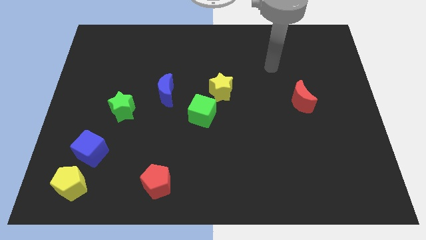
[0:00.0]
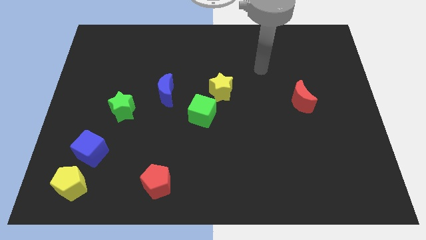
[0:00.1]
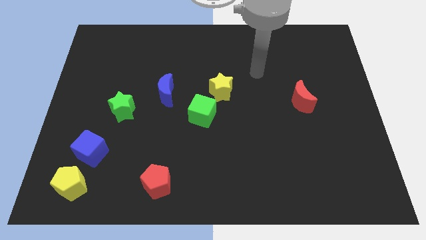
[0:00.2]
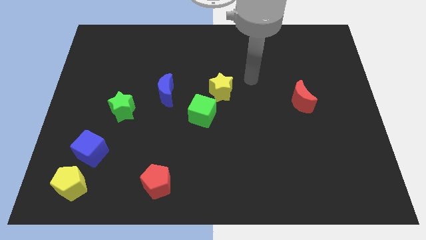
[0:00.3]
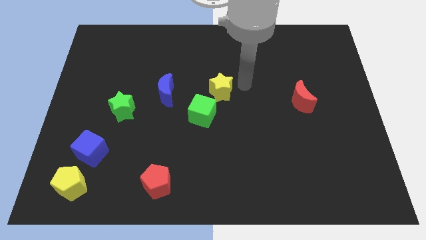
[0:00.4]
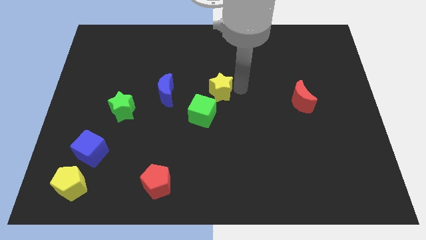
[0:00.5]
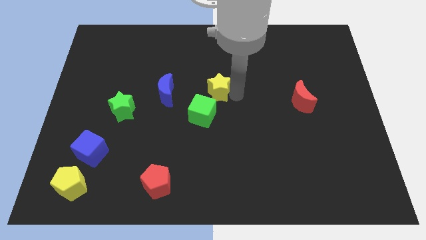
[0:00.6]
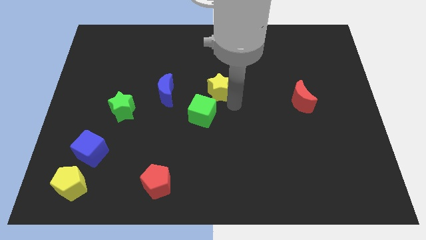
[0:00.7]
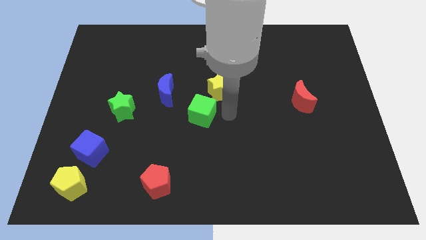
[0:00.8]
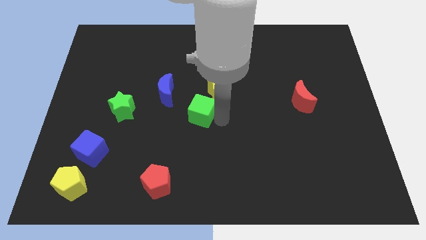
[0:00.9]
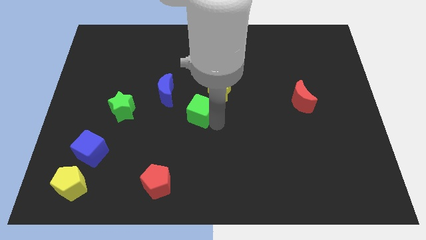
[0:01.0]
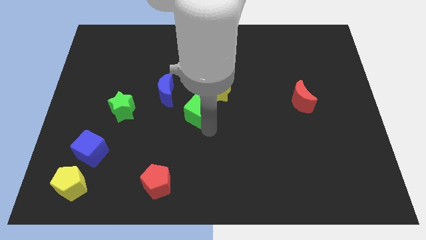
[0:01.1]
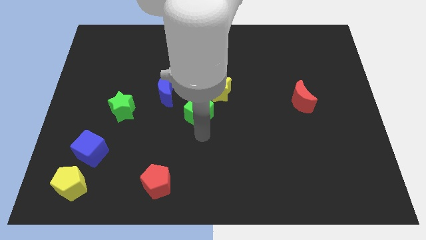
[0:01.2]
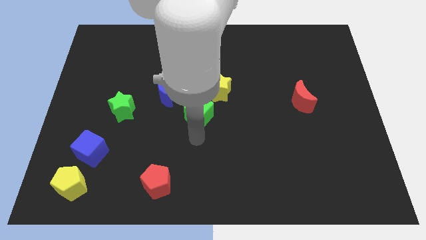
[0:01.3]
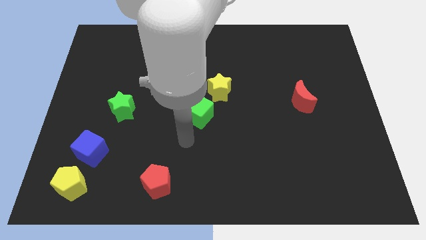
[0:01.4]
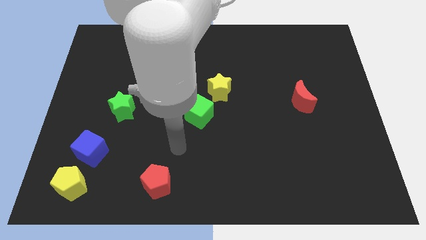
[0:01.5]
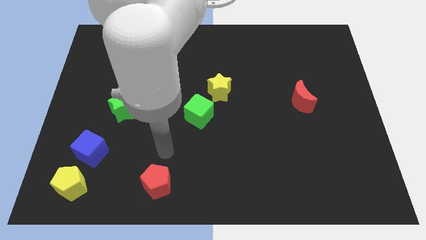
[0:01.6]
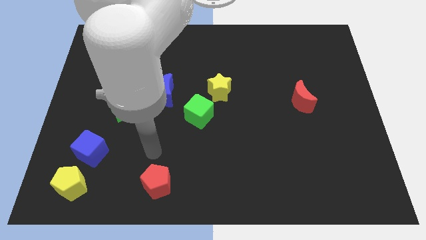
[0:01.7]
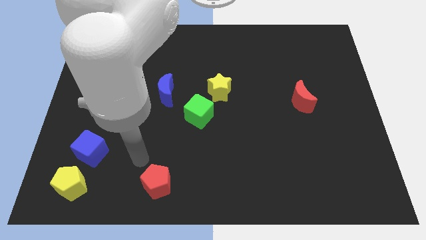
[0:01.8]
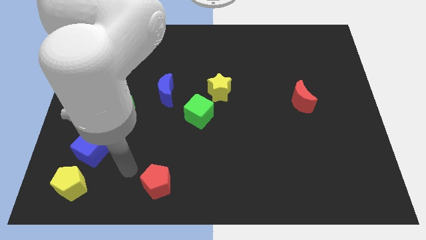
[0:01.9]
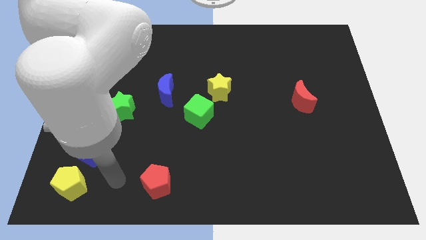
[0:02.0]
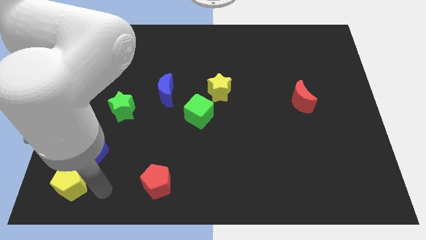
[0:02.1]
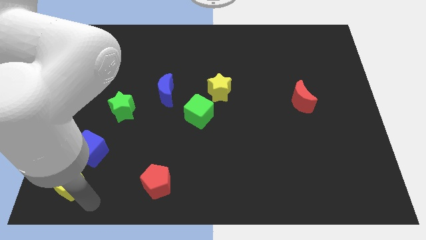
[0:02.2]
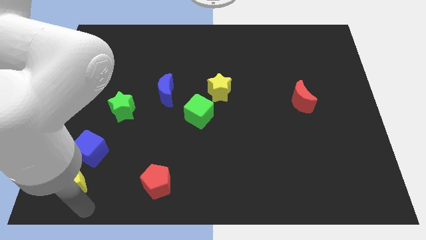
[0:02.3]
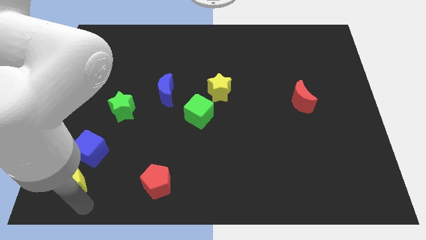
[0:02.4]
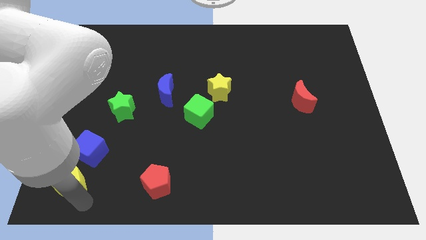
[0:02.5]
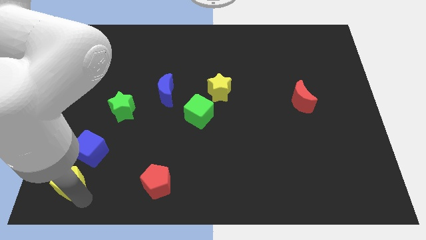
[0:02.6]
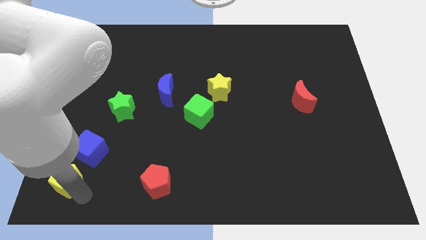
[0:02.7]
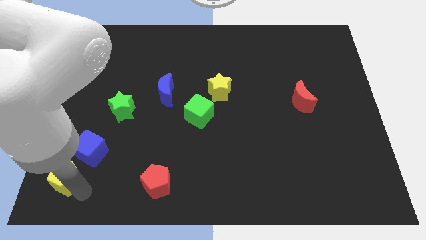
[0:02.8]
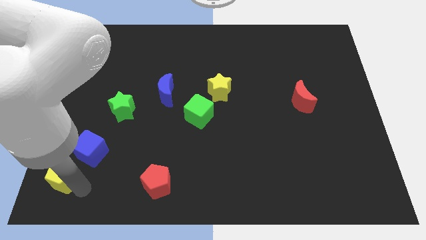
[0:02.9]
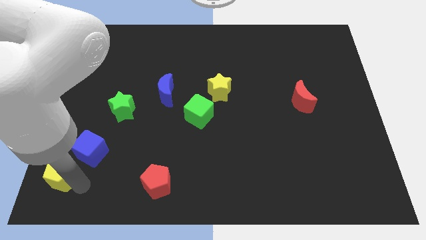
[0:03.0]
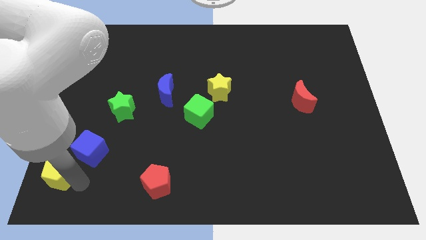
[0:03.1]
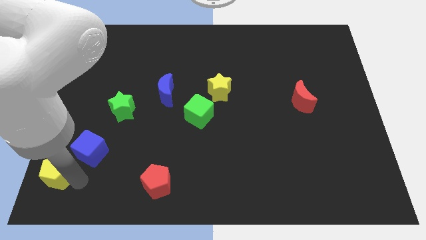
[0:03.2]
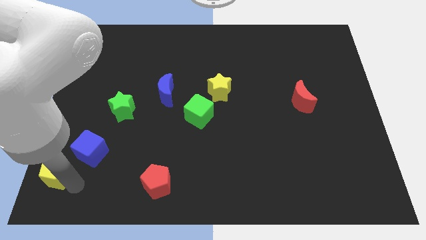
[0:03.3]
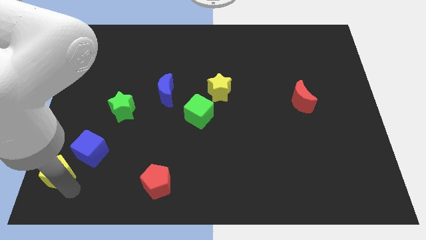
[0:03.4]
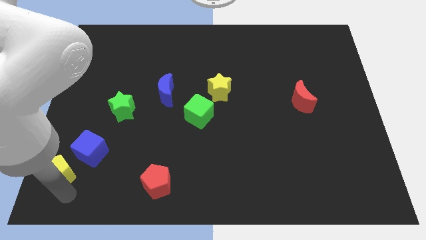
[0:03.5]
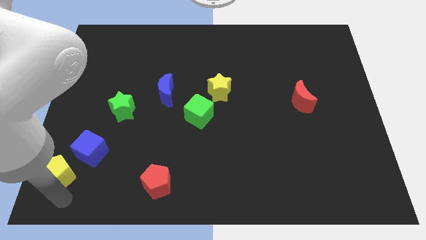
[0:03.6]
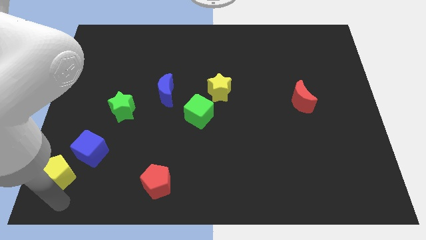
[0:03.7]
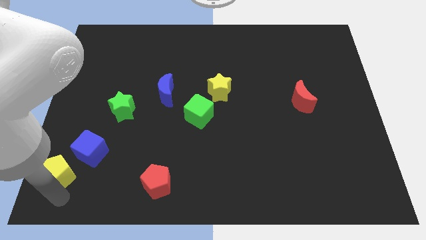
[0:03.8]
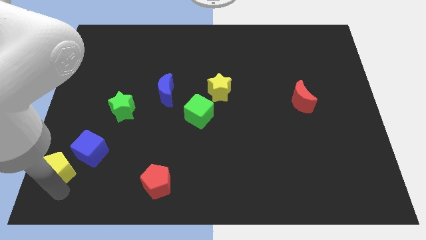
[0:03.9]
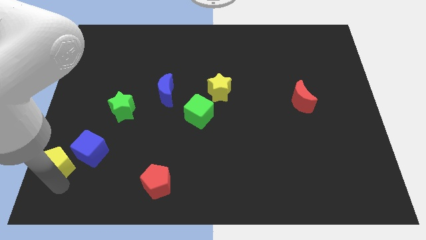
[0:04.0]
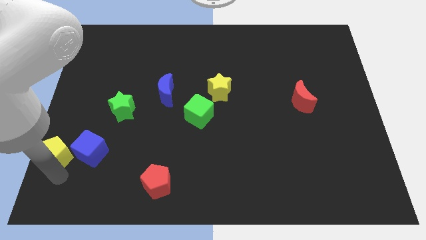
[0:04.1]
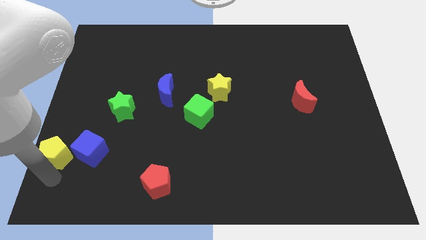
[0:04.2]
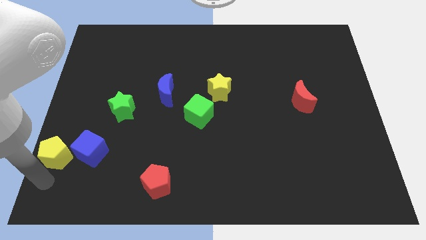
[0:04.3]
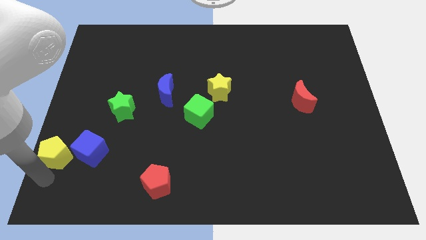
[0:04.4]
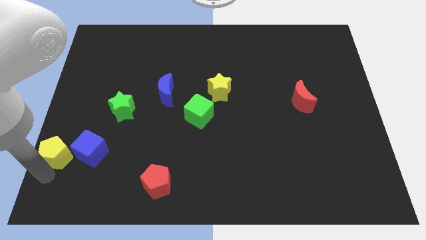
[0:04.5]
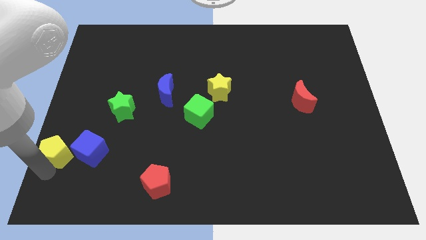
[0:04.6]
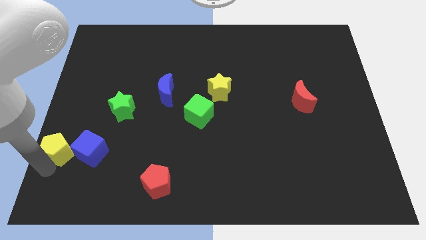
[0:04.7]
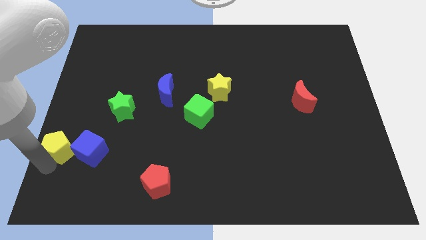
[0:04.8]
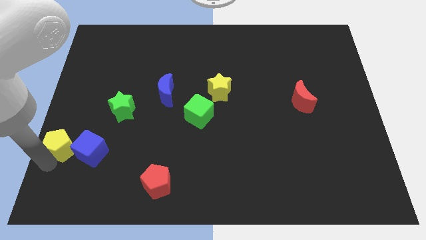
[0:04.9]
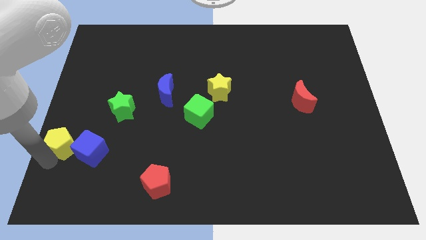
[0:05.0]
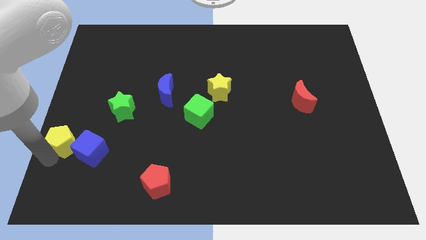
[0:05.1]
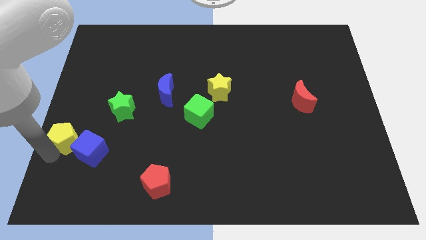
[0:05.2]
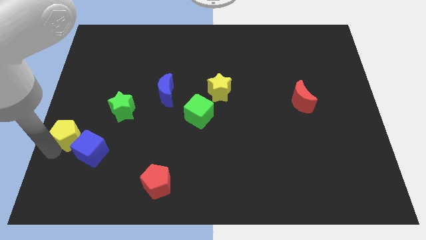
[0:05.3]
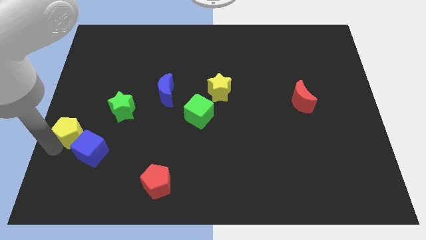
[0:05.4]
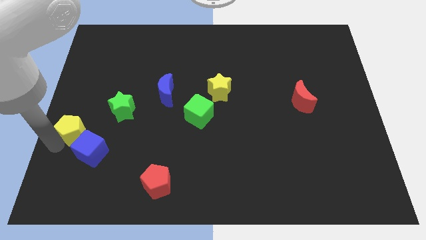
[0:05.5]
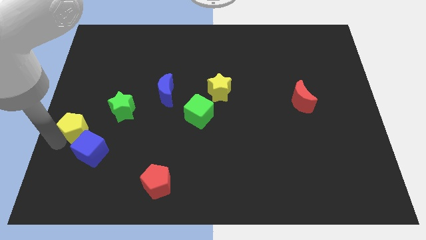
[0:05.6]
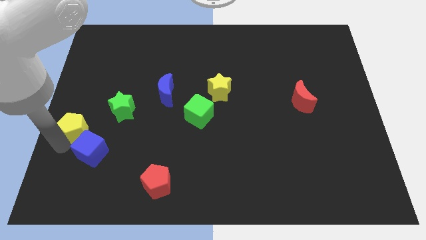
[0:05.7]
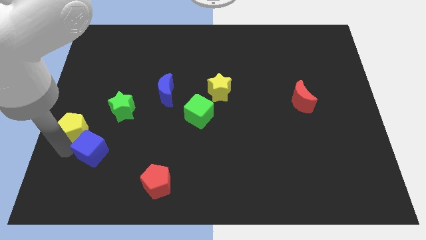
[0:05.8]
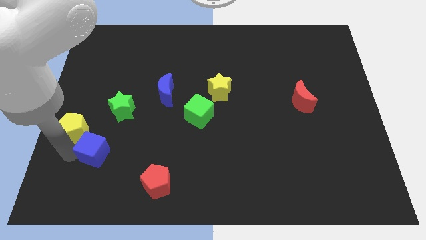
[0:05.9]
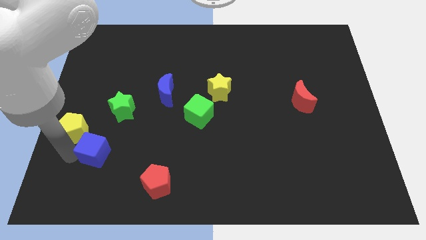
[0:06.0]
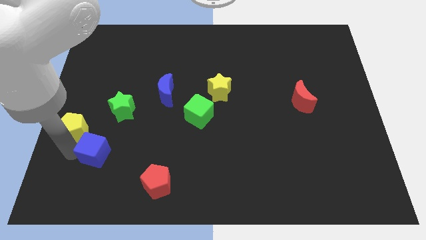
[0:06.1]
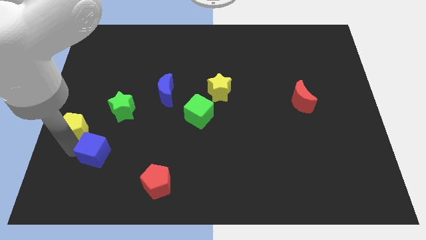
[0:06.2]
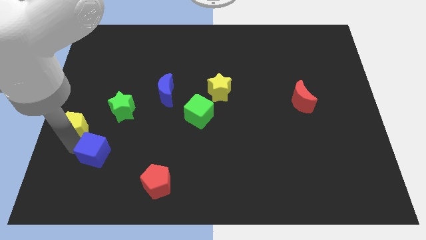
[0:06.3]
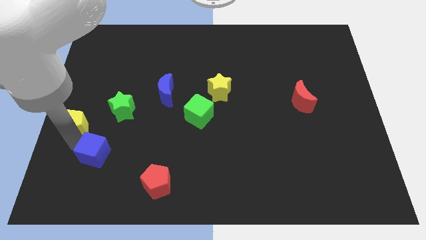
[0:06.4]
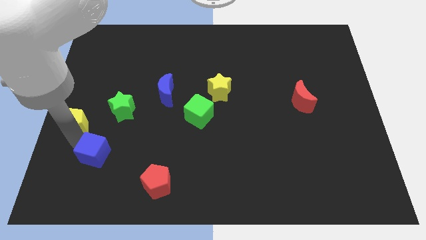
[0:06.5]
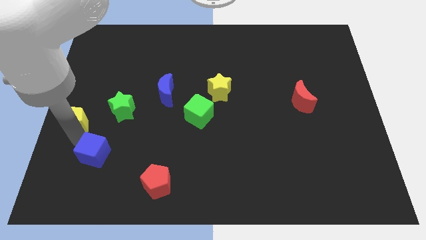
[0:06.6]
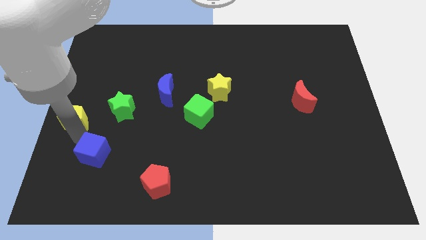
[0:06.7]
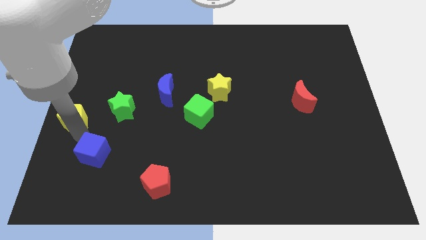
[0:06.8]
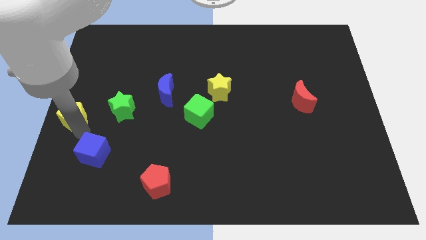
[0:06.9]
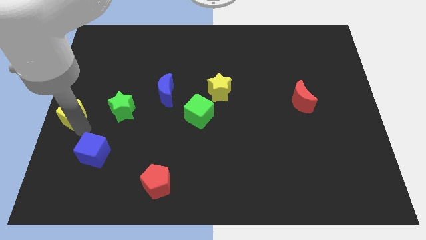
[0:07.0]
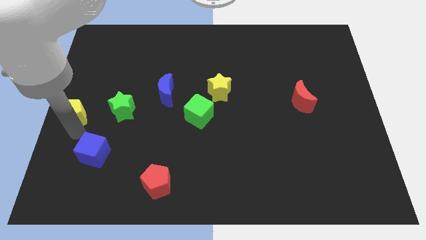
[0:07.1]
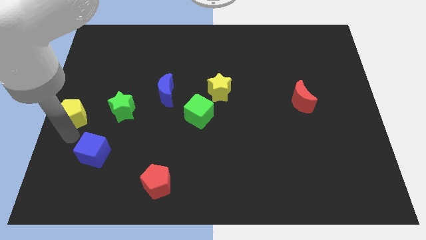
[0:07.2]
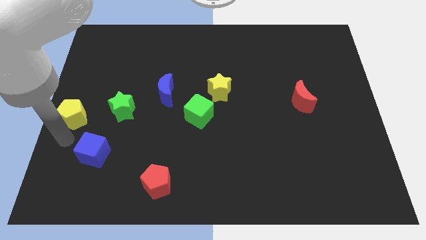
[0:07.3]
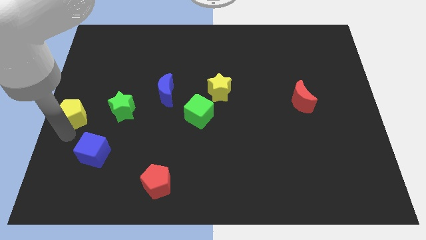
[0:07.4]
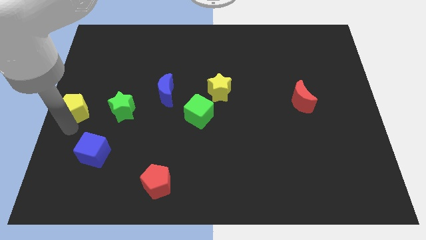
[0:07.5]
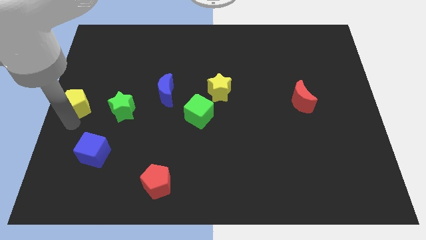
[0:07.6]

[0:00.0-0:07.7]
slide the yellow pentagon up

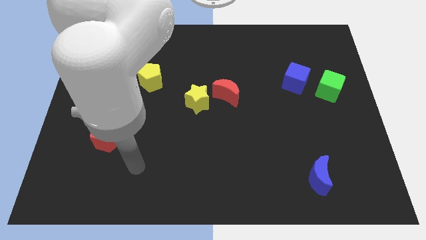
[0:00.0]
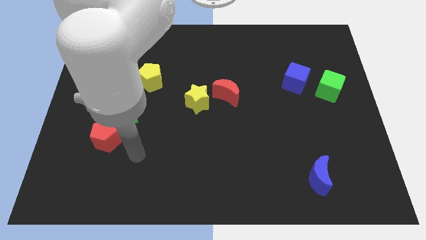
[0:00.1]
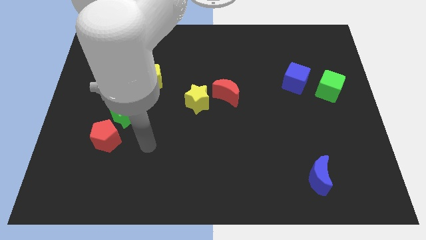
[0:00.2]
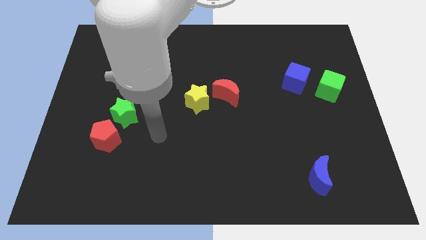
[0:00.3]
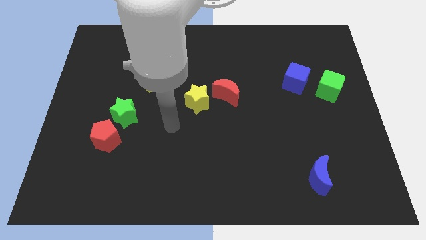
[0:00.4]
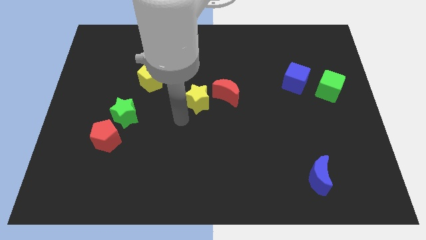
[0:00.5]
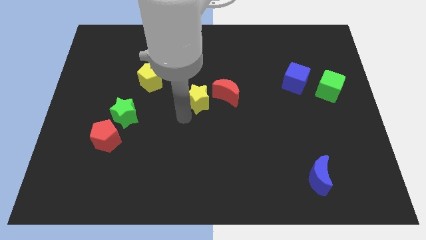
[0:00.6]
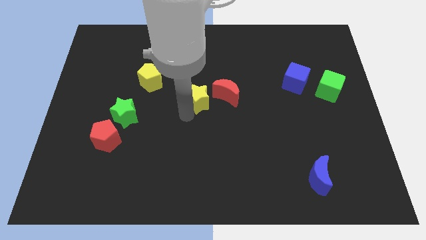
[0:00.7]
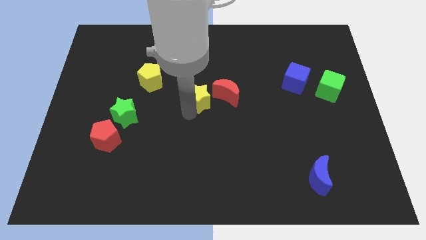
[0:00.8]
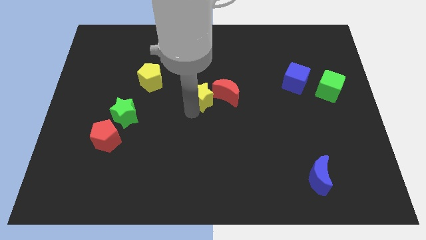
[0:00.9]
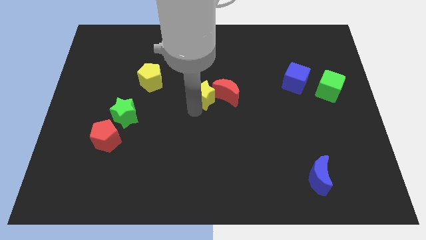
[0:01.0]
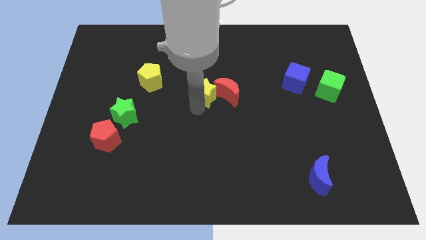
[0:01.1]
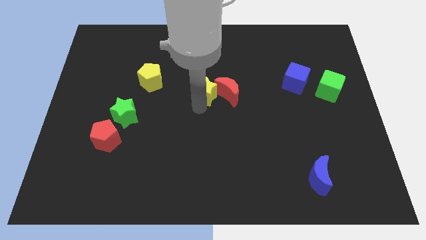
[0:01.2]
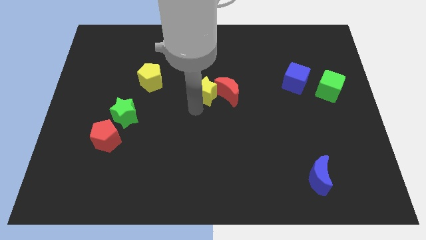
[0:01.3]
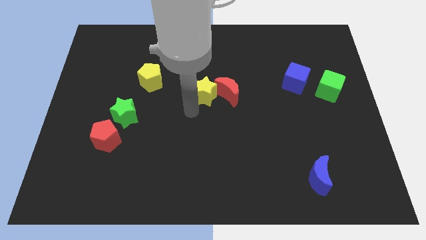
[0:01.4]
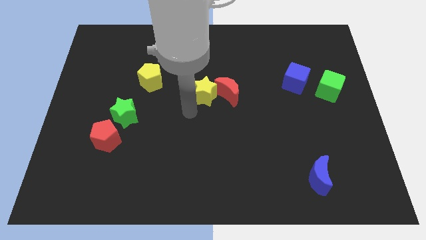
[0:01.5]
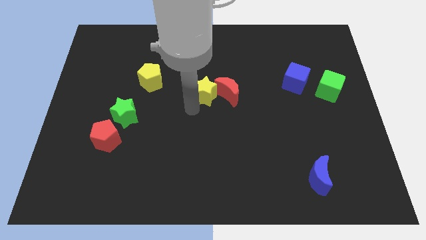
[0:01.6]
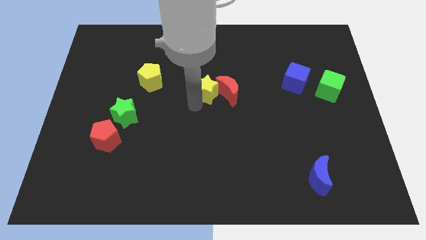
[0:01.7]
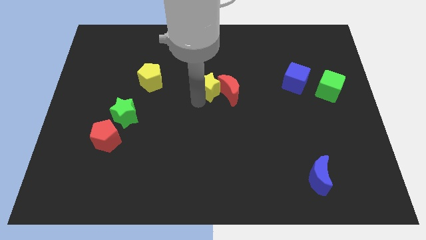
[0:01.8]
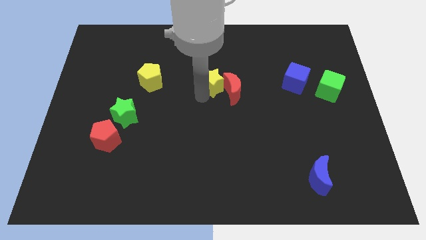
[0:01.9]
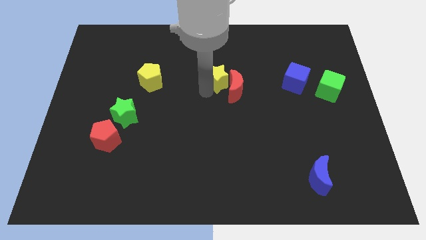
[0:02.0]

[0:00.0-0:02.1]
move the yellow star a little bit up and right
